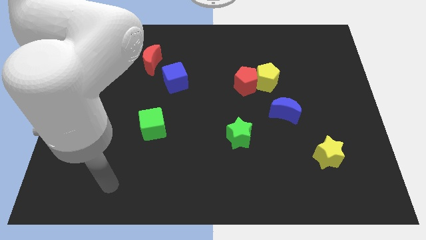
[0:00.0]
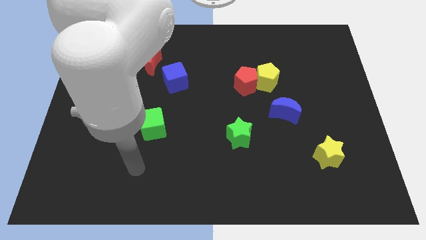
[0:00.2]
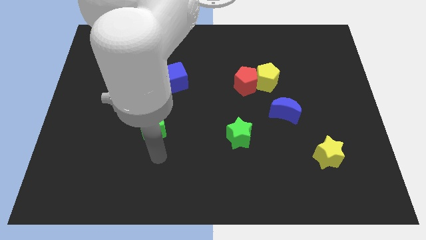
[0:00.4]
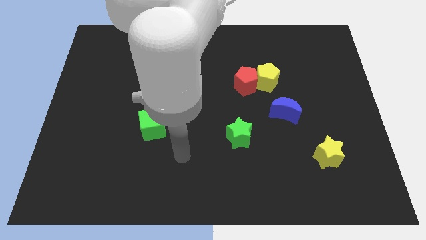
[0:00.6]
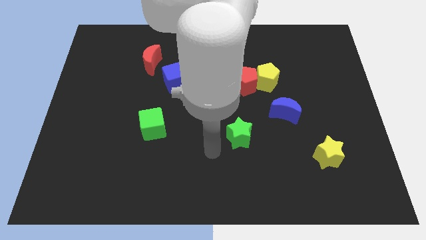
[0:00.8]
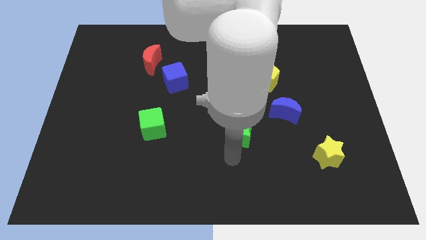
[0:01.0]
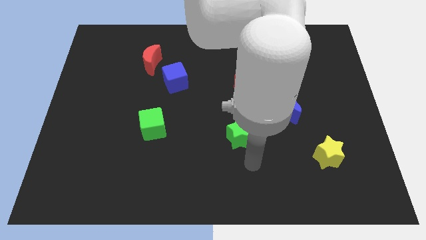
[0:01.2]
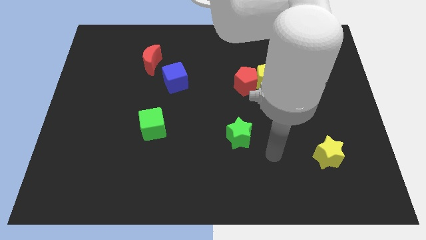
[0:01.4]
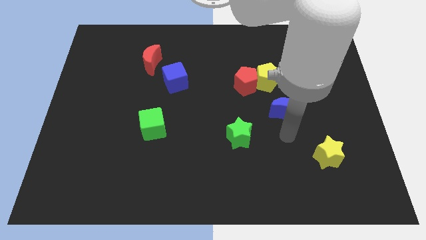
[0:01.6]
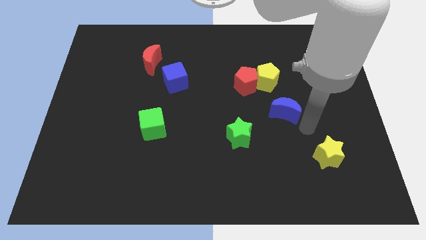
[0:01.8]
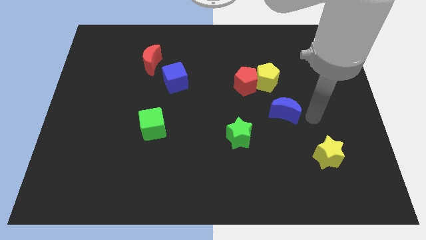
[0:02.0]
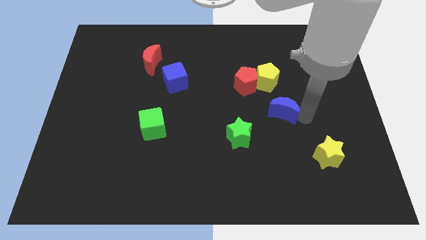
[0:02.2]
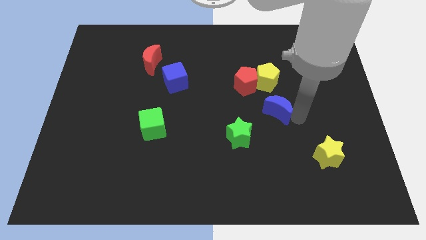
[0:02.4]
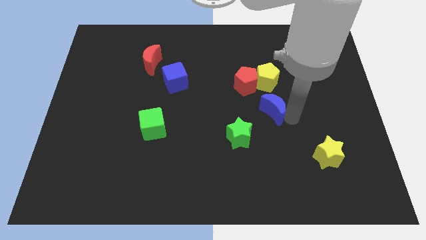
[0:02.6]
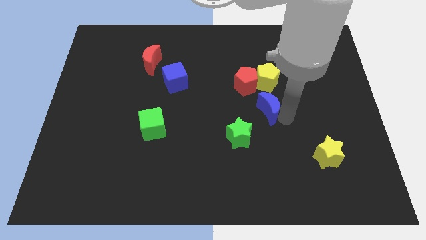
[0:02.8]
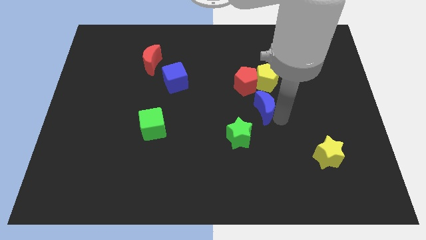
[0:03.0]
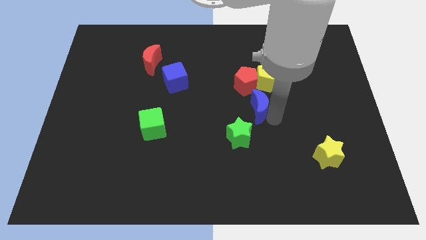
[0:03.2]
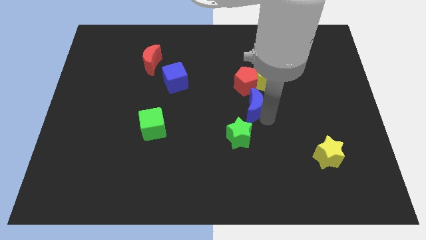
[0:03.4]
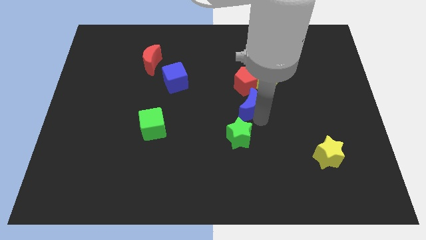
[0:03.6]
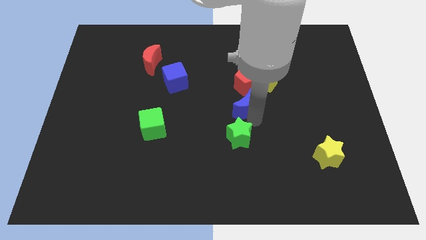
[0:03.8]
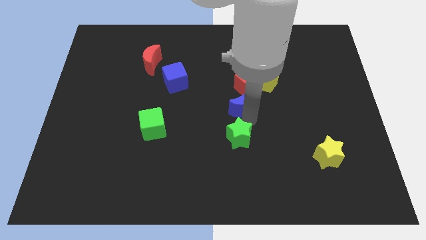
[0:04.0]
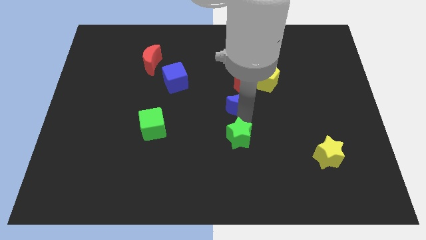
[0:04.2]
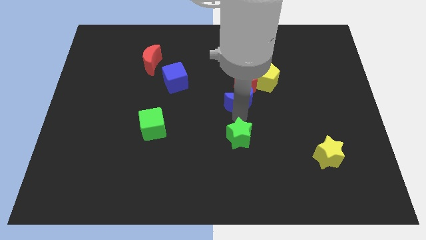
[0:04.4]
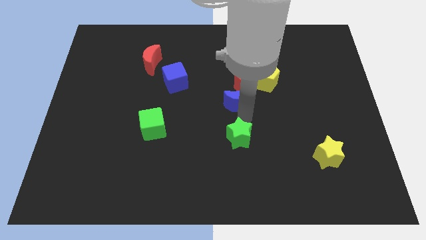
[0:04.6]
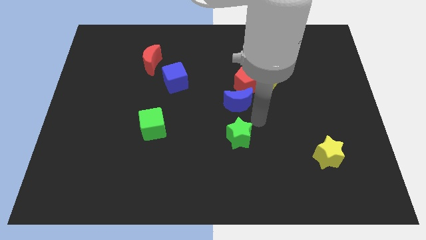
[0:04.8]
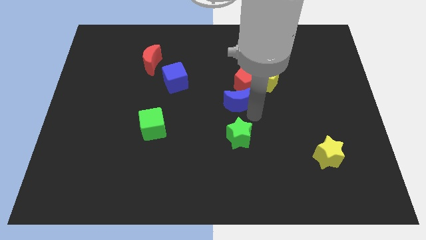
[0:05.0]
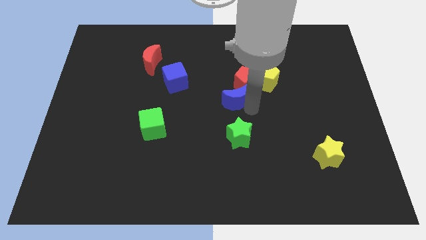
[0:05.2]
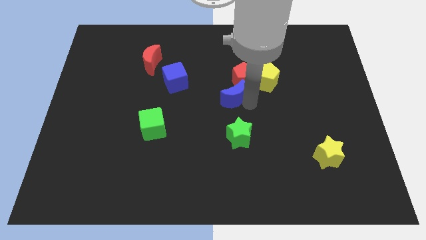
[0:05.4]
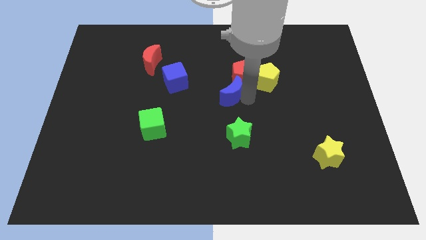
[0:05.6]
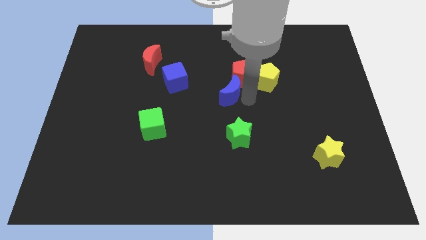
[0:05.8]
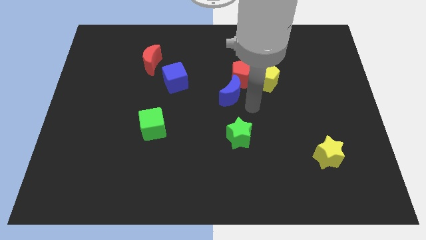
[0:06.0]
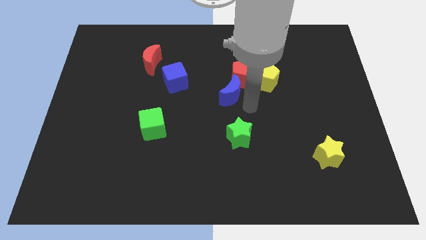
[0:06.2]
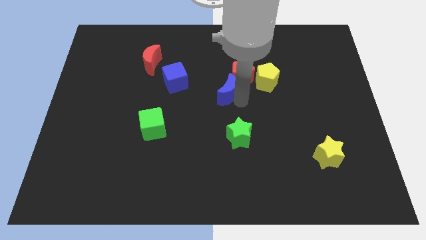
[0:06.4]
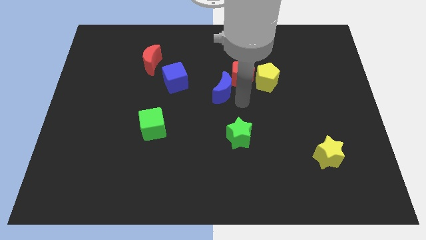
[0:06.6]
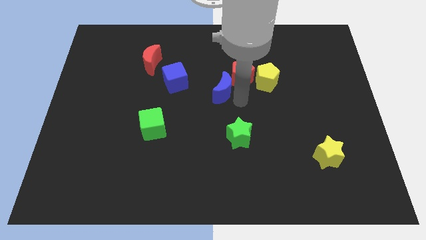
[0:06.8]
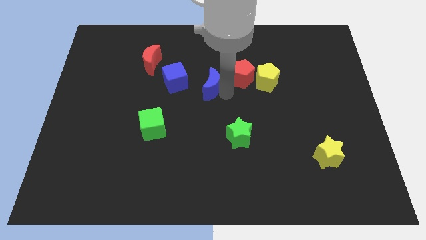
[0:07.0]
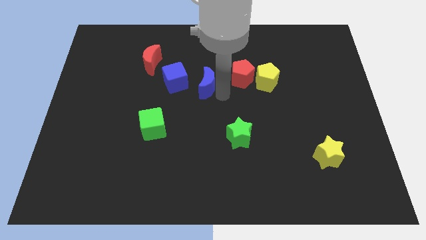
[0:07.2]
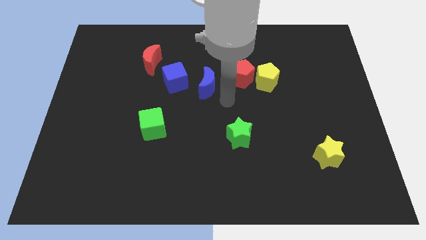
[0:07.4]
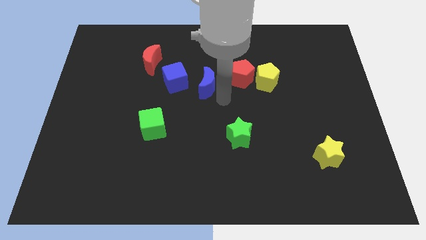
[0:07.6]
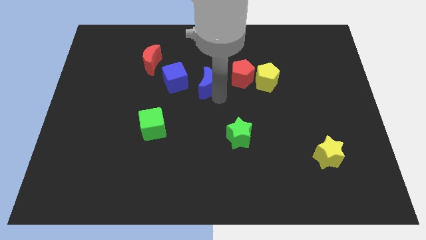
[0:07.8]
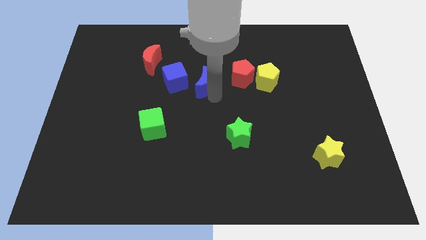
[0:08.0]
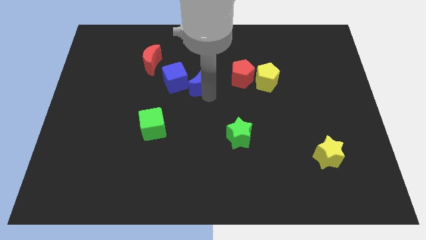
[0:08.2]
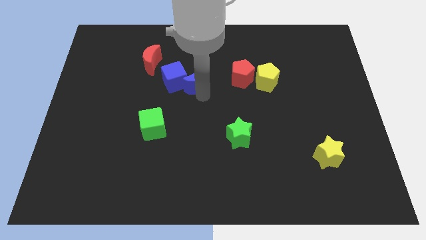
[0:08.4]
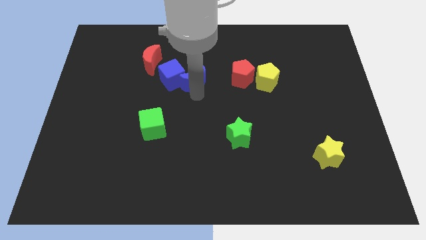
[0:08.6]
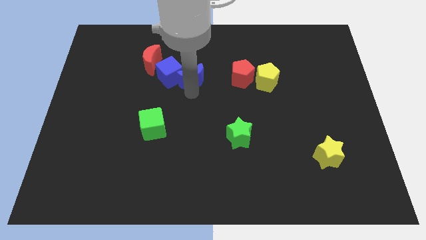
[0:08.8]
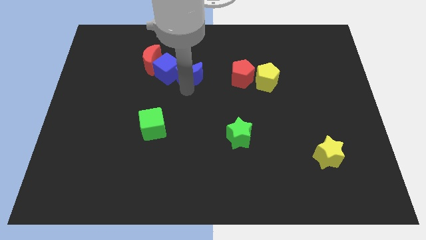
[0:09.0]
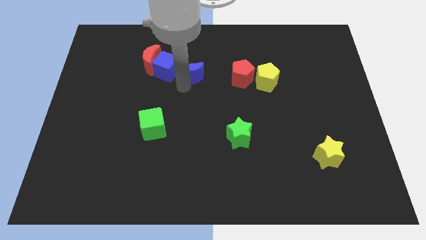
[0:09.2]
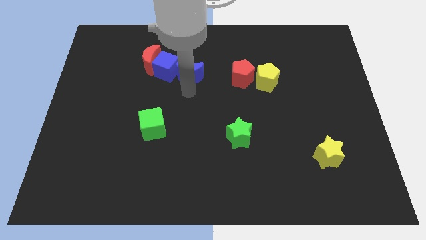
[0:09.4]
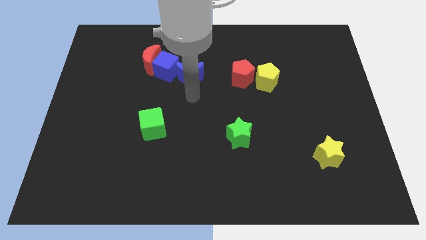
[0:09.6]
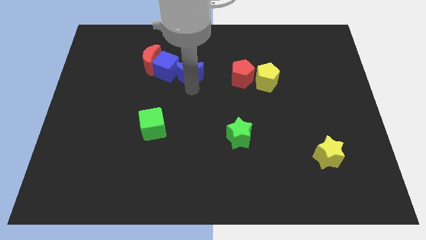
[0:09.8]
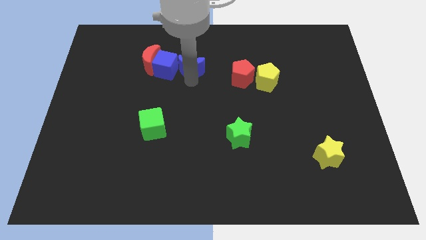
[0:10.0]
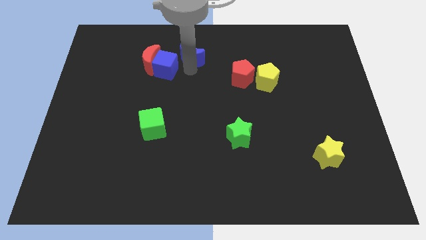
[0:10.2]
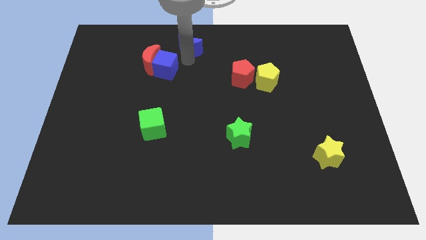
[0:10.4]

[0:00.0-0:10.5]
put the blue moon to the top

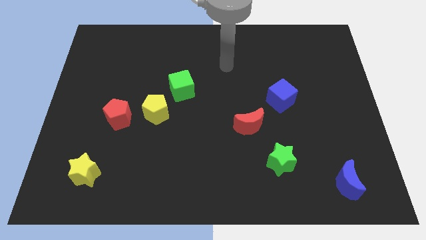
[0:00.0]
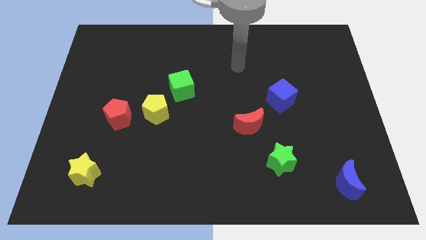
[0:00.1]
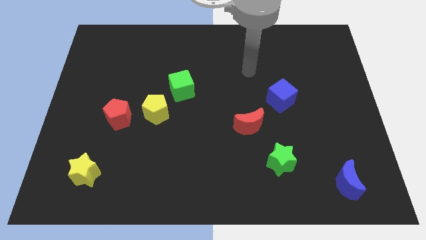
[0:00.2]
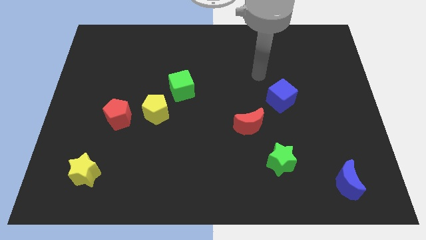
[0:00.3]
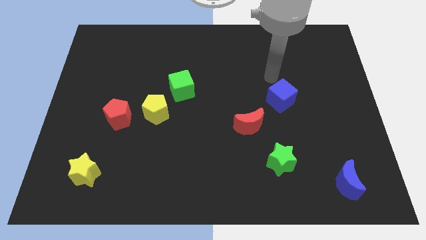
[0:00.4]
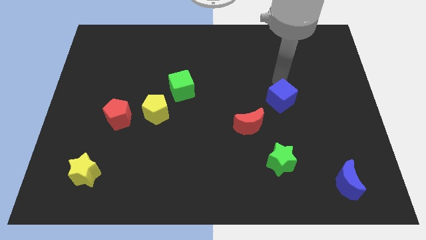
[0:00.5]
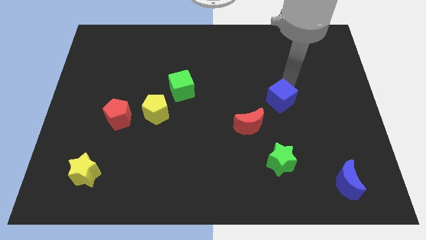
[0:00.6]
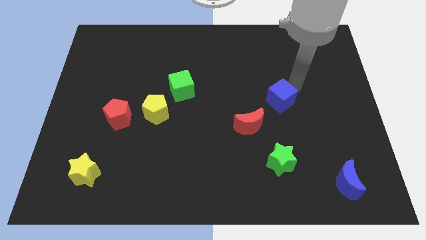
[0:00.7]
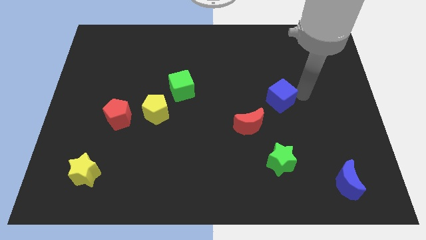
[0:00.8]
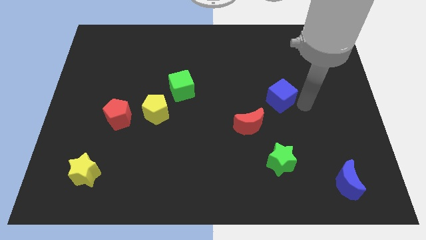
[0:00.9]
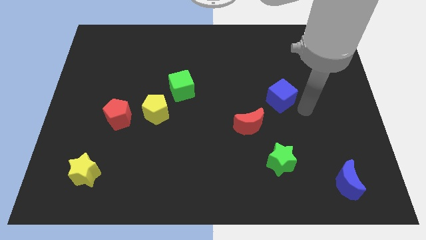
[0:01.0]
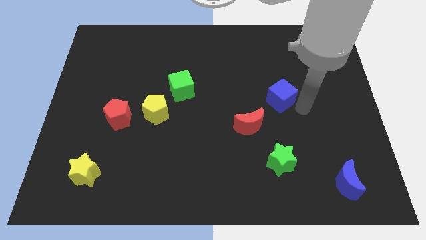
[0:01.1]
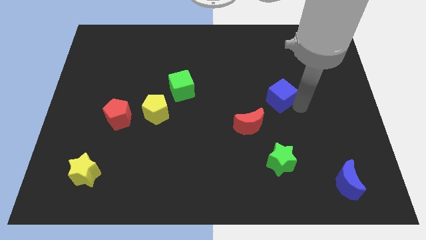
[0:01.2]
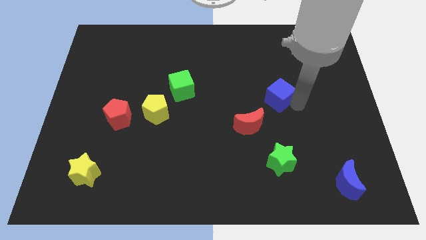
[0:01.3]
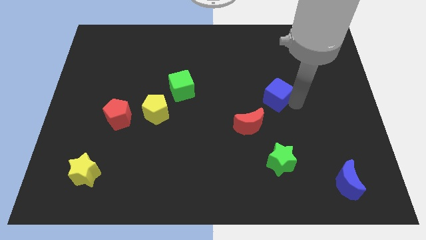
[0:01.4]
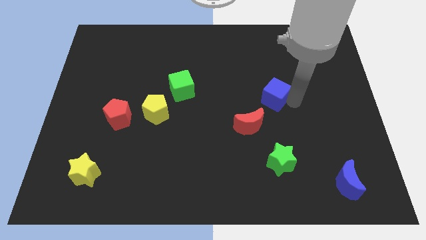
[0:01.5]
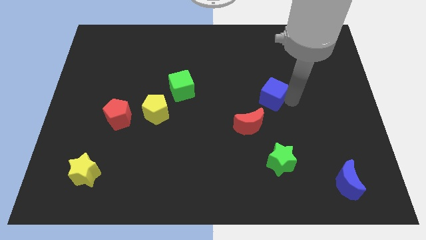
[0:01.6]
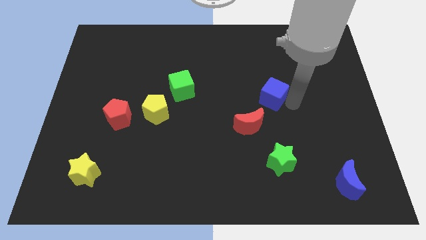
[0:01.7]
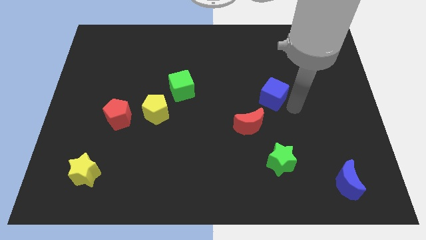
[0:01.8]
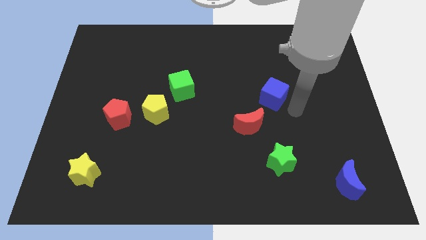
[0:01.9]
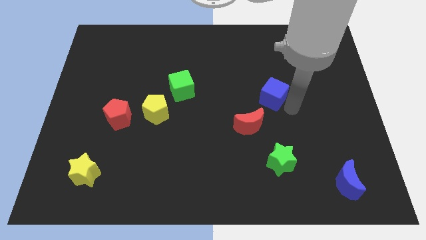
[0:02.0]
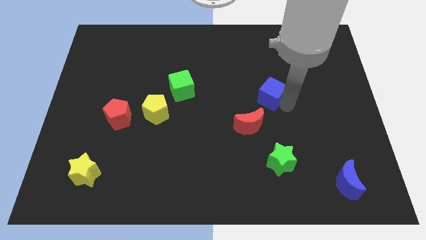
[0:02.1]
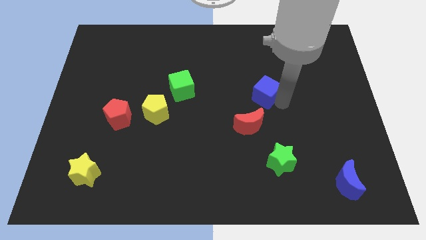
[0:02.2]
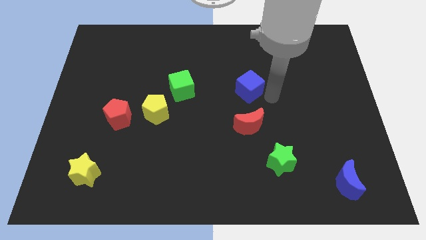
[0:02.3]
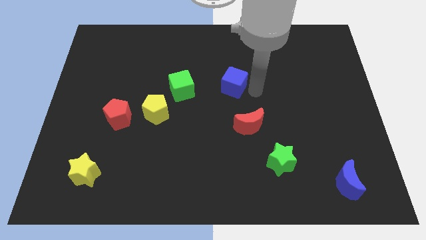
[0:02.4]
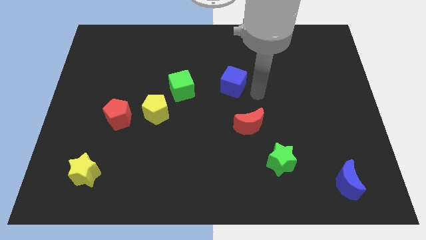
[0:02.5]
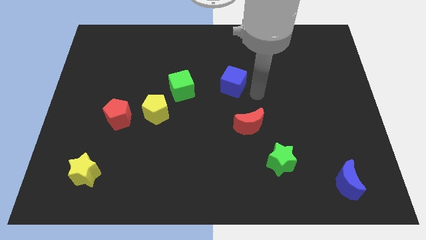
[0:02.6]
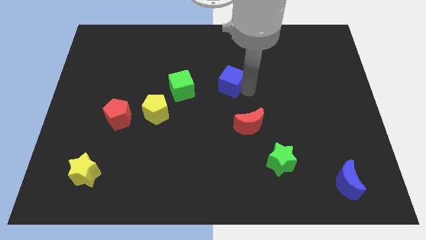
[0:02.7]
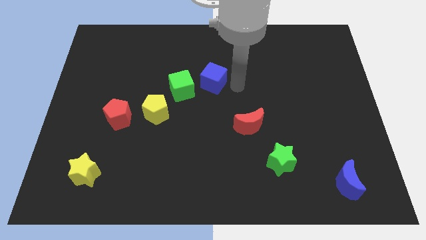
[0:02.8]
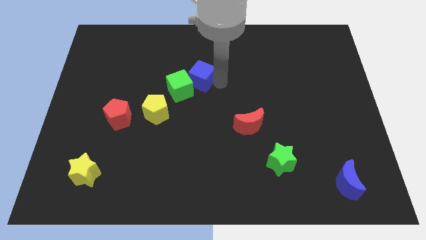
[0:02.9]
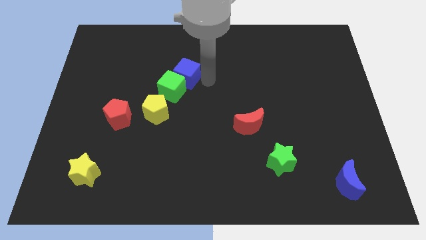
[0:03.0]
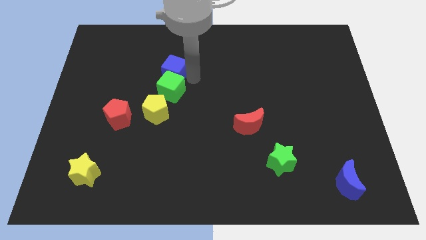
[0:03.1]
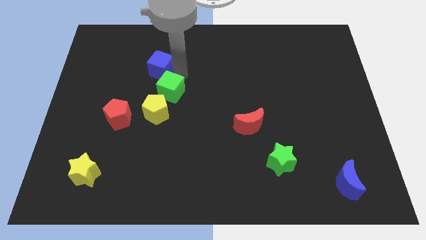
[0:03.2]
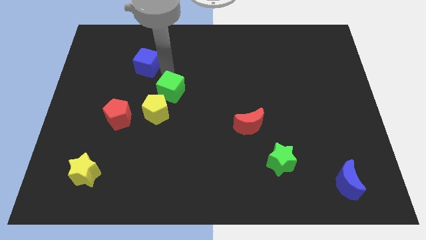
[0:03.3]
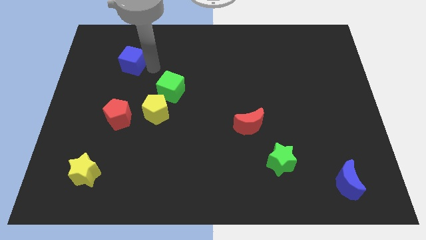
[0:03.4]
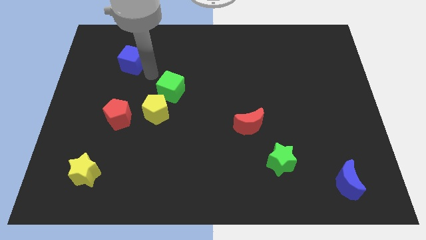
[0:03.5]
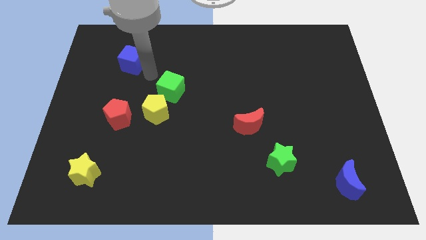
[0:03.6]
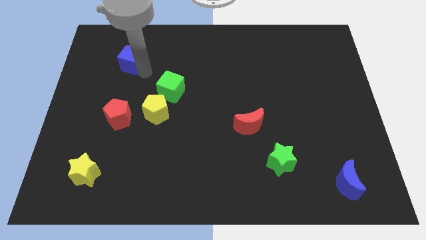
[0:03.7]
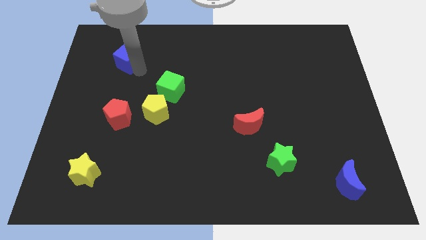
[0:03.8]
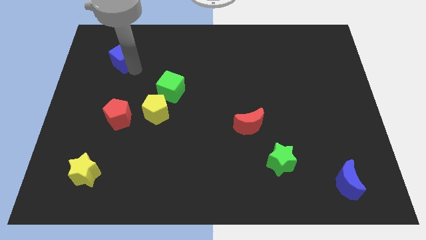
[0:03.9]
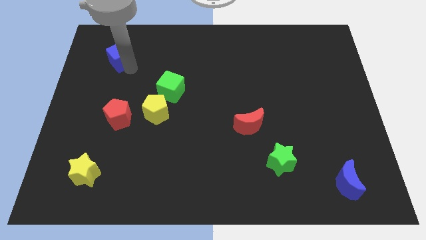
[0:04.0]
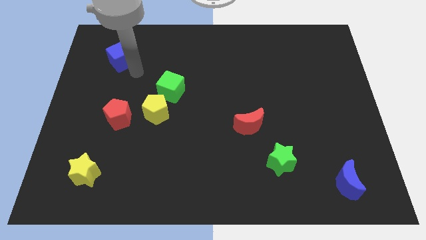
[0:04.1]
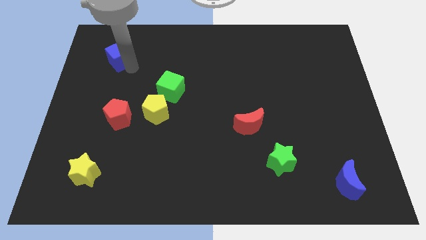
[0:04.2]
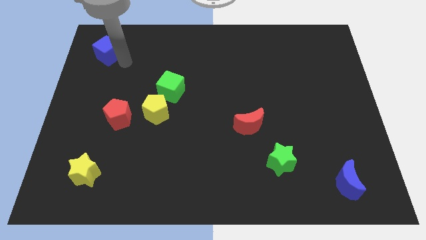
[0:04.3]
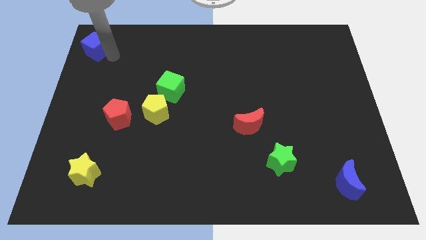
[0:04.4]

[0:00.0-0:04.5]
move the blue cube to the top left corner
